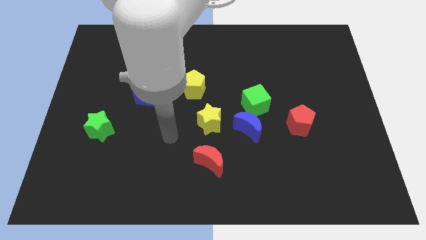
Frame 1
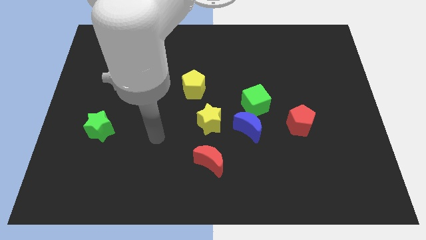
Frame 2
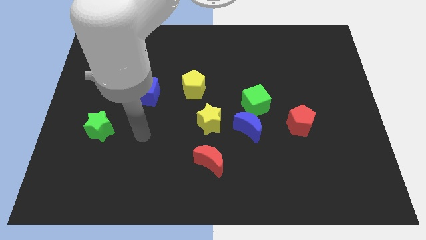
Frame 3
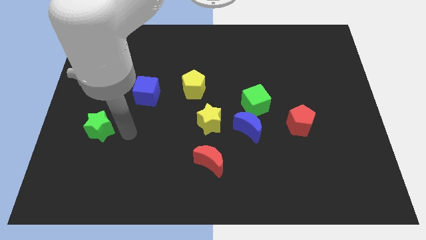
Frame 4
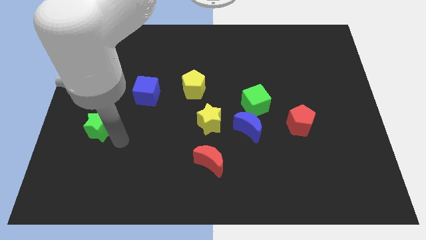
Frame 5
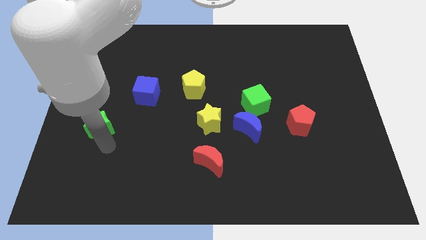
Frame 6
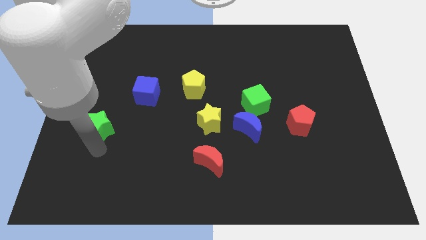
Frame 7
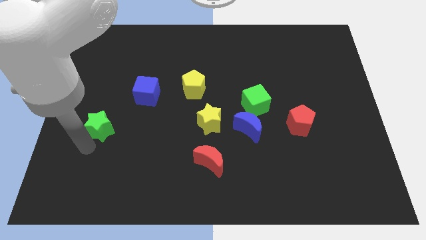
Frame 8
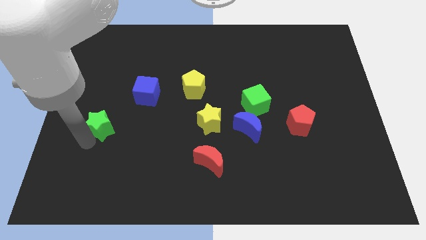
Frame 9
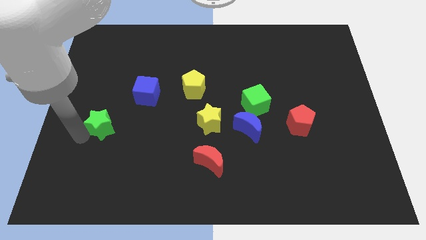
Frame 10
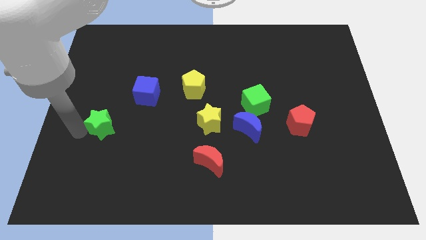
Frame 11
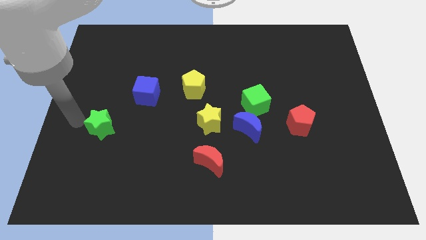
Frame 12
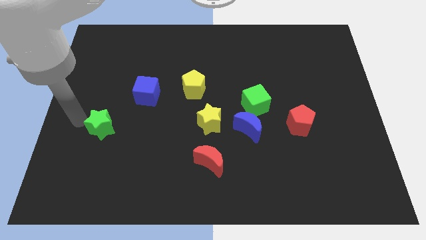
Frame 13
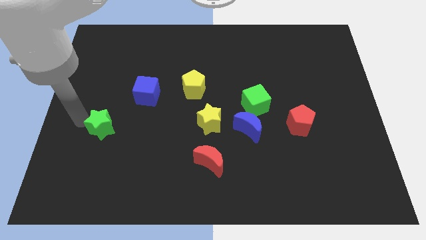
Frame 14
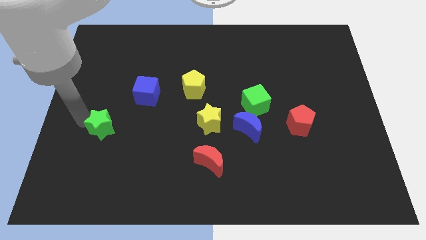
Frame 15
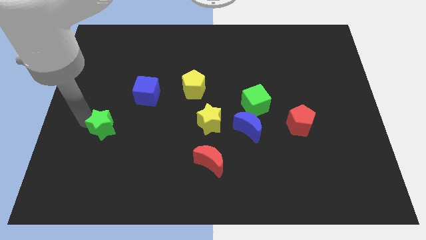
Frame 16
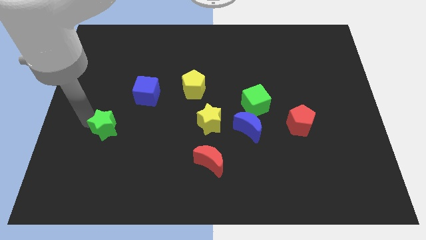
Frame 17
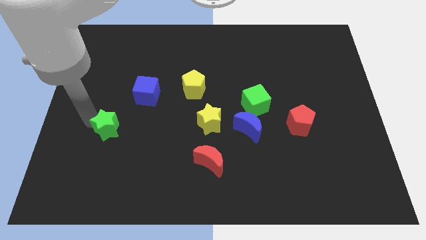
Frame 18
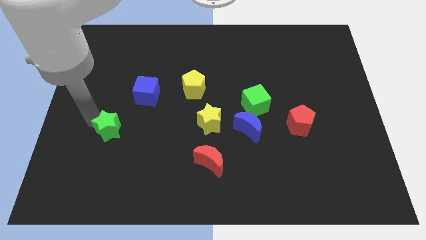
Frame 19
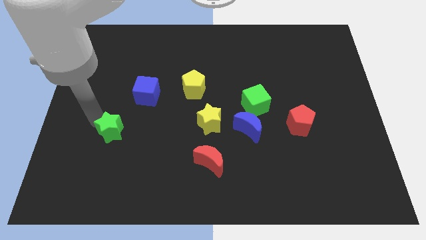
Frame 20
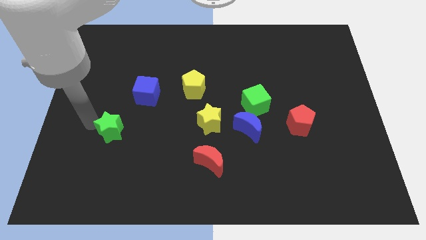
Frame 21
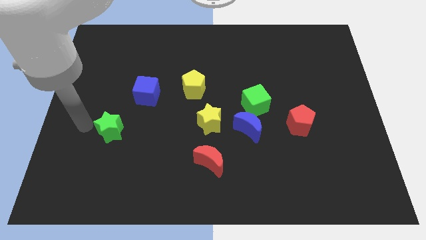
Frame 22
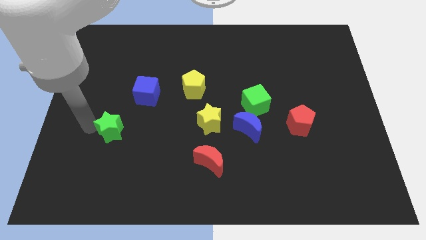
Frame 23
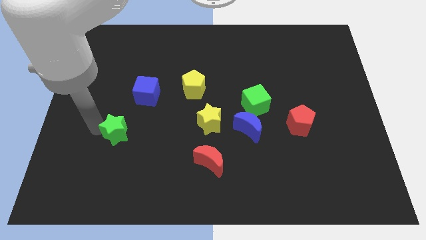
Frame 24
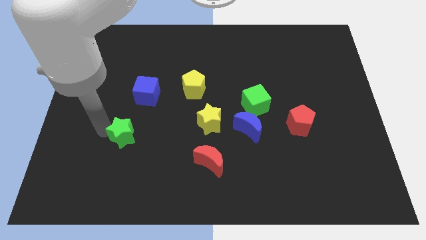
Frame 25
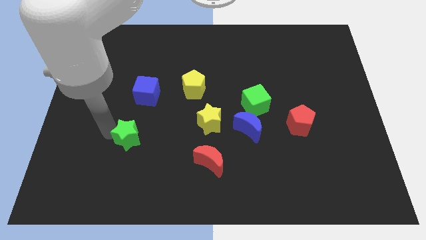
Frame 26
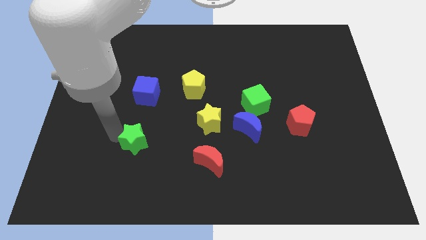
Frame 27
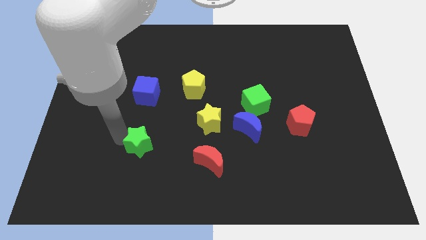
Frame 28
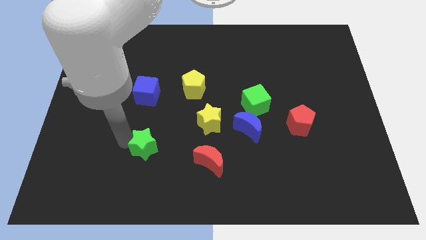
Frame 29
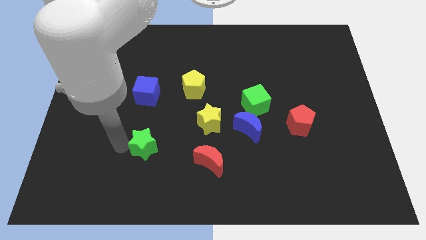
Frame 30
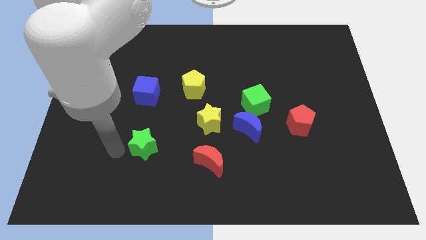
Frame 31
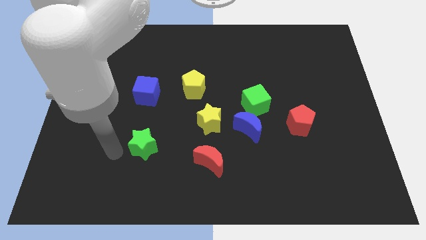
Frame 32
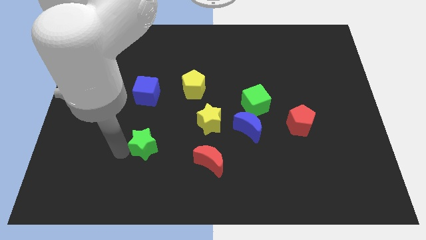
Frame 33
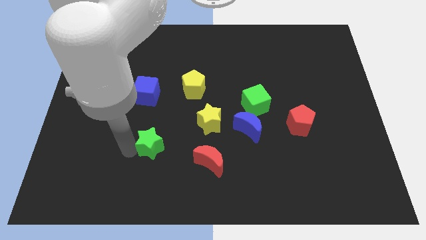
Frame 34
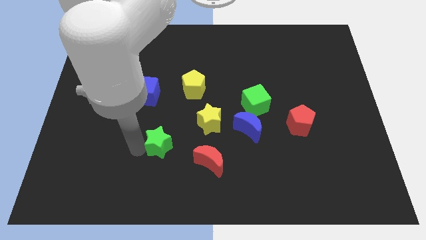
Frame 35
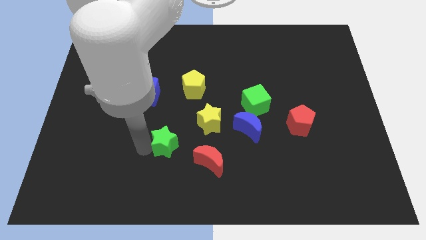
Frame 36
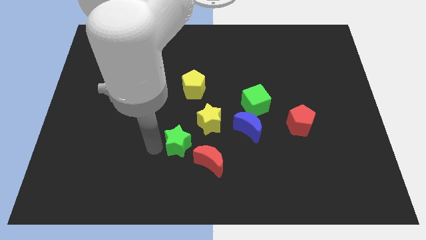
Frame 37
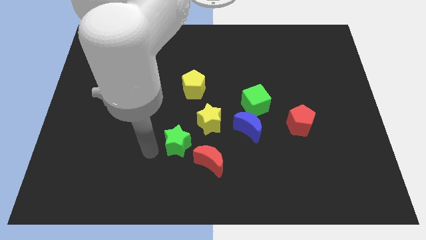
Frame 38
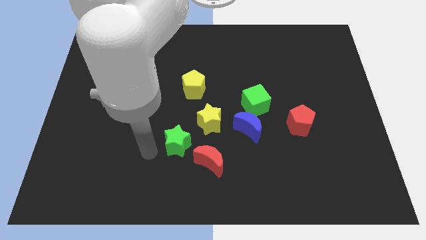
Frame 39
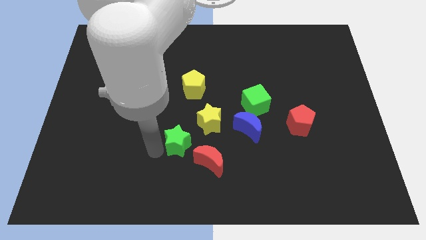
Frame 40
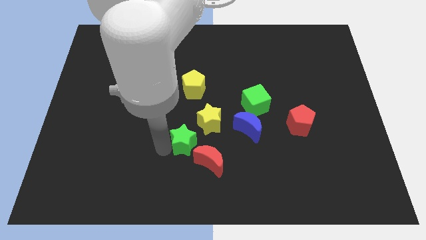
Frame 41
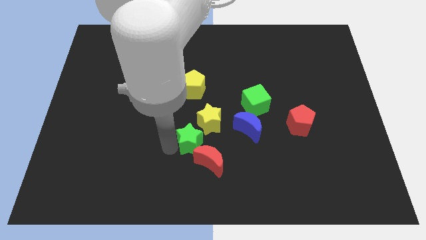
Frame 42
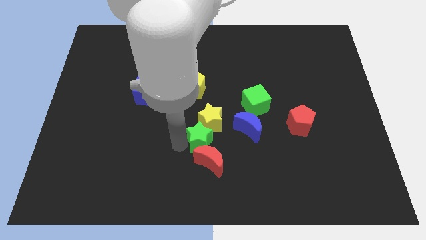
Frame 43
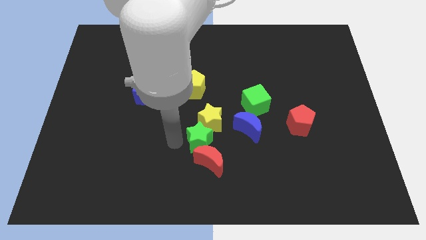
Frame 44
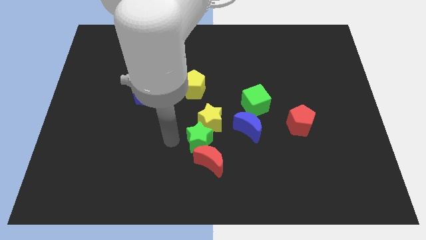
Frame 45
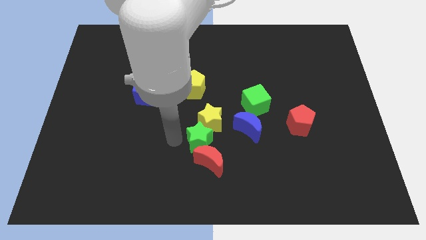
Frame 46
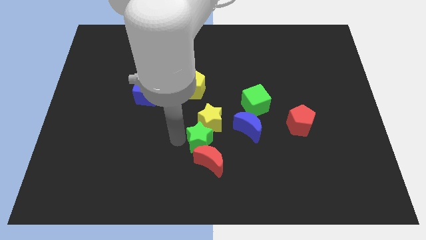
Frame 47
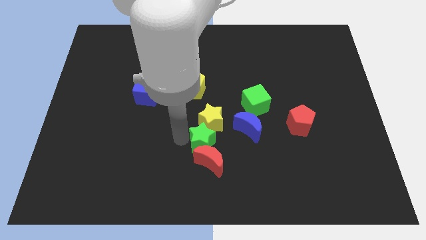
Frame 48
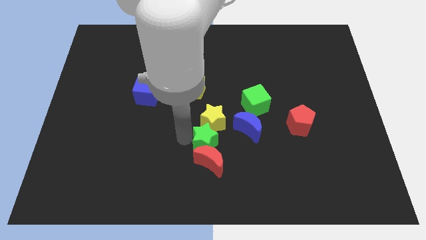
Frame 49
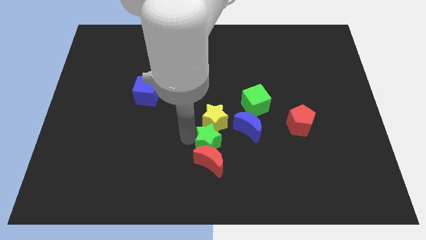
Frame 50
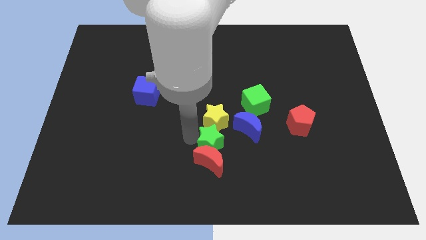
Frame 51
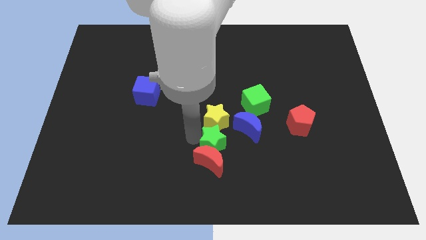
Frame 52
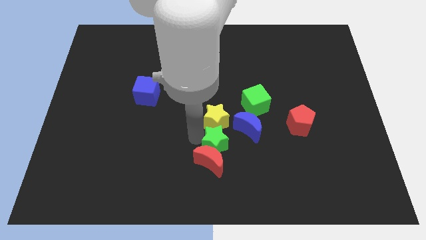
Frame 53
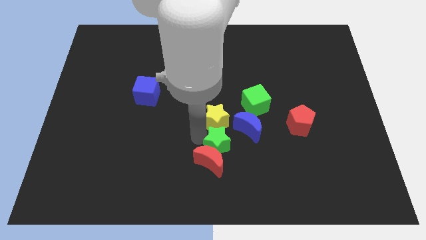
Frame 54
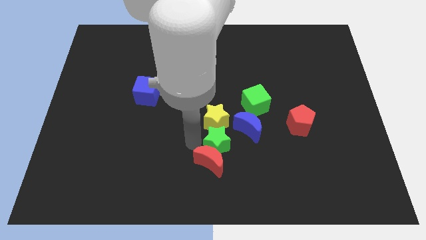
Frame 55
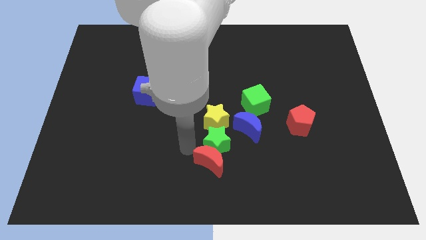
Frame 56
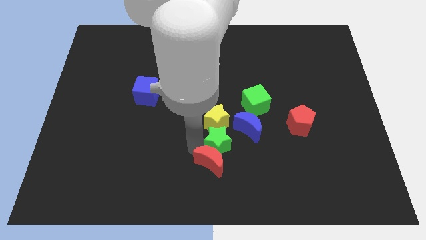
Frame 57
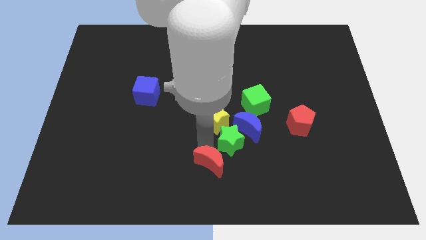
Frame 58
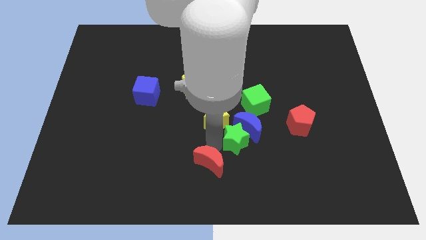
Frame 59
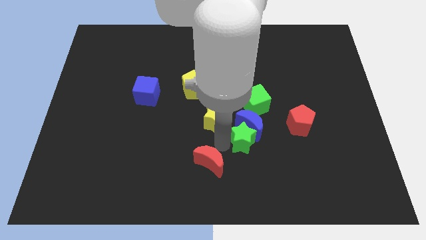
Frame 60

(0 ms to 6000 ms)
put the green star below the green cube

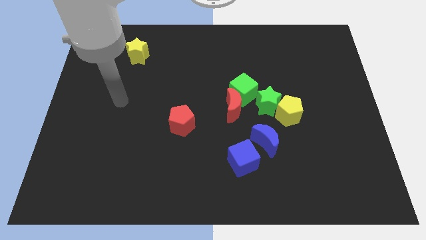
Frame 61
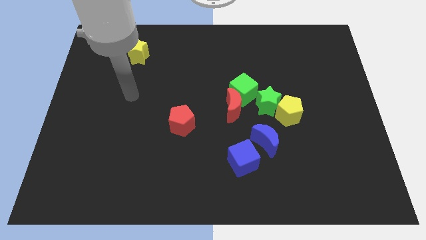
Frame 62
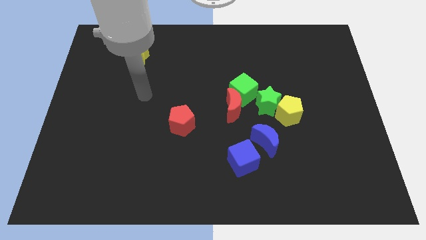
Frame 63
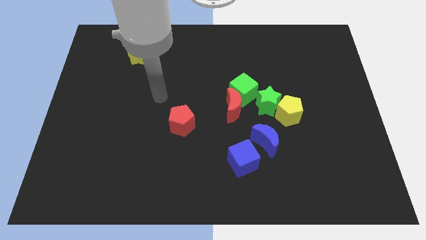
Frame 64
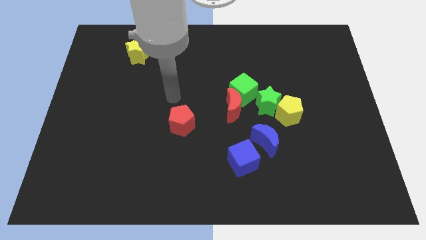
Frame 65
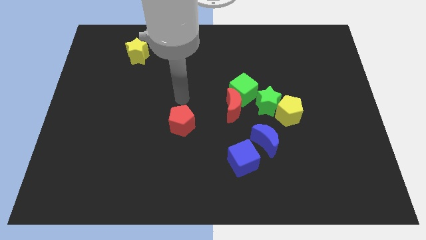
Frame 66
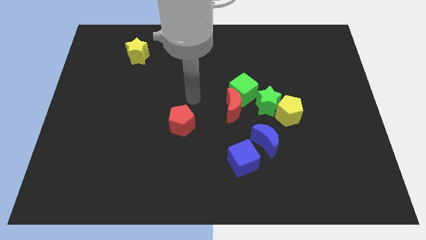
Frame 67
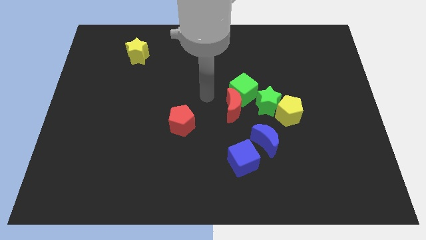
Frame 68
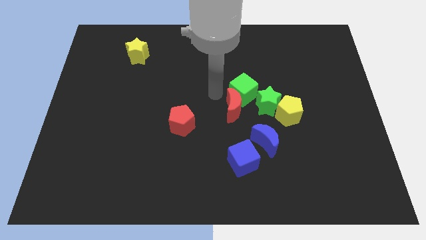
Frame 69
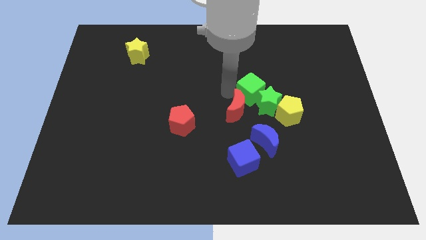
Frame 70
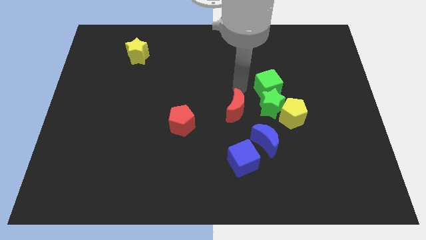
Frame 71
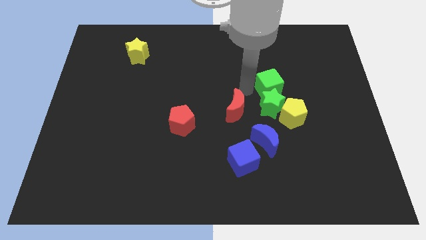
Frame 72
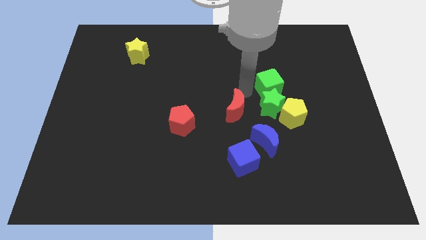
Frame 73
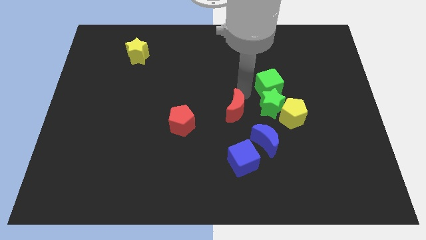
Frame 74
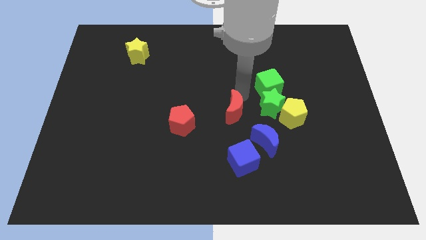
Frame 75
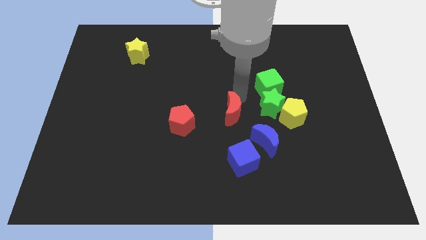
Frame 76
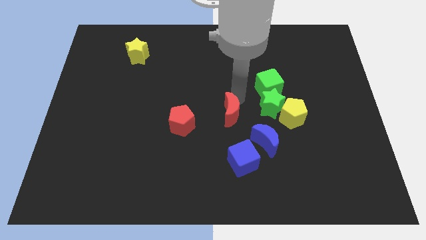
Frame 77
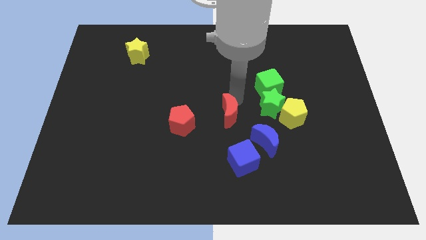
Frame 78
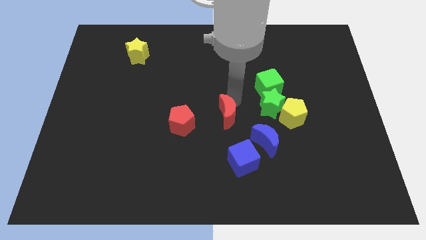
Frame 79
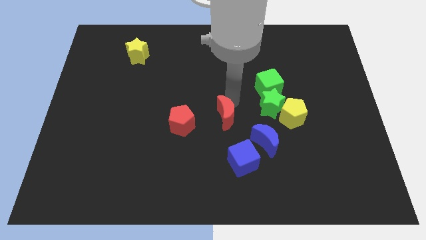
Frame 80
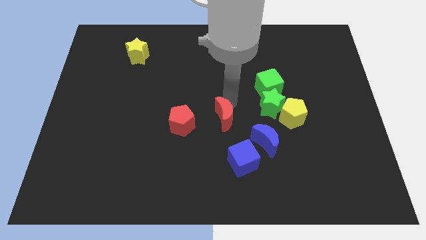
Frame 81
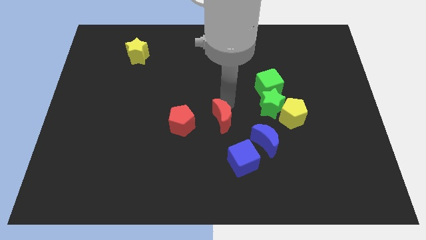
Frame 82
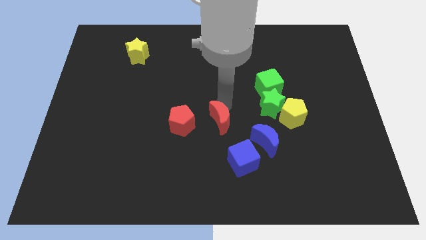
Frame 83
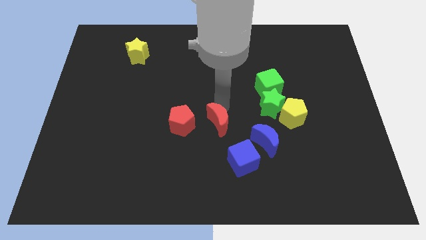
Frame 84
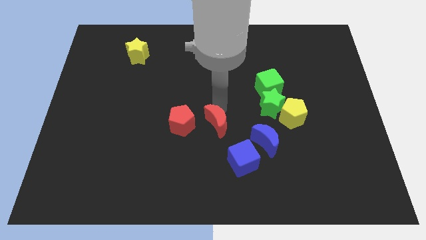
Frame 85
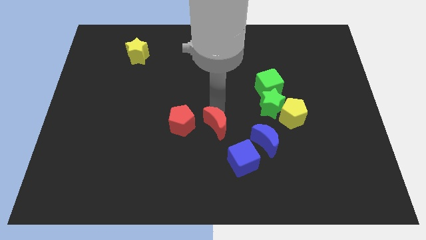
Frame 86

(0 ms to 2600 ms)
slide the red moon left of the blue moon
